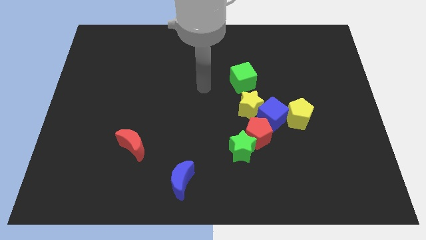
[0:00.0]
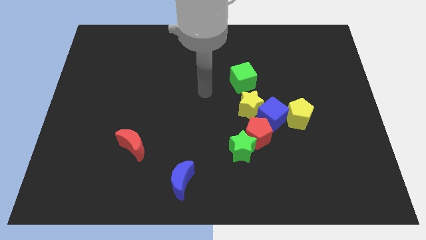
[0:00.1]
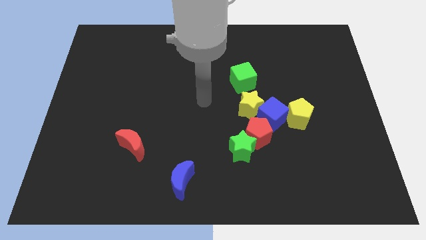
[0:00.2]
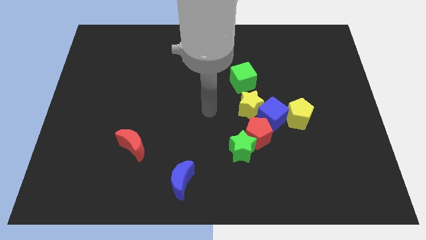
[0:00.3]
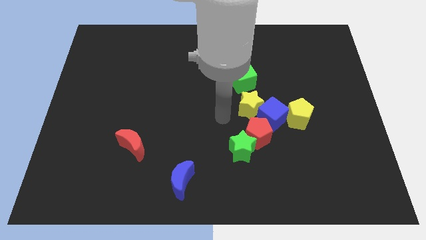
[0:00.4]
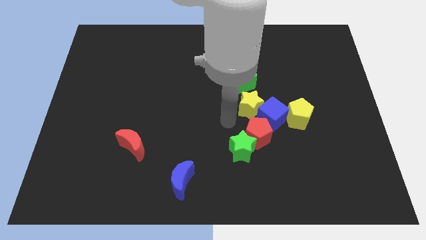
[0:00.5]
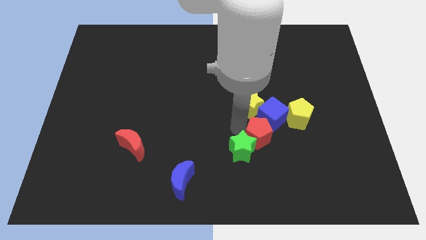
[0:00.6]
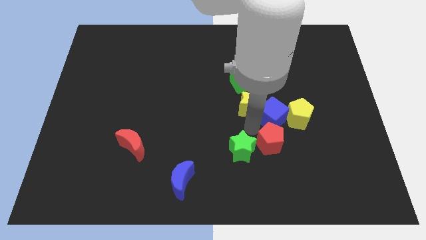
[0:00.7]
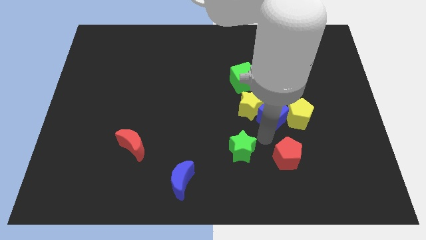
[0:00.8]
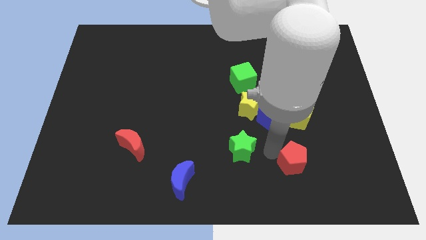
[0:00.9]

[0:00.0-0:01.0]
move the green star away from the red pentagon

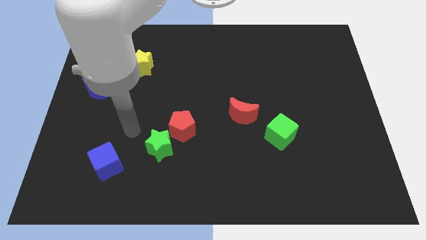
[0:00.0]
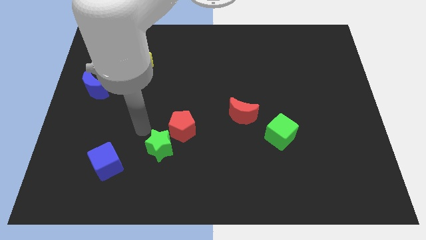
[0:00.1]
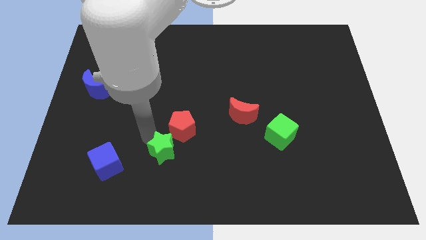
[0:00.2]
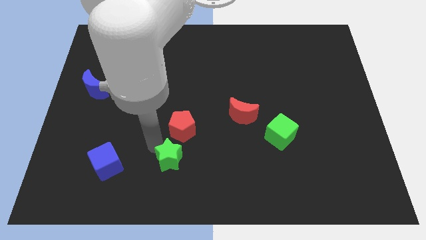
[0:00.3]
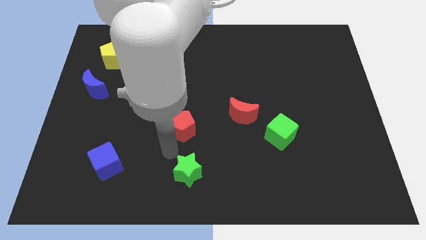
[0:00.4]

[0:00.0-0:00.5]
separate the red pentagon from the green star

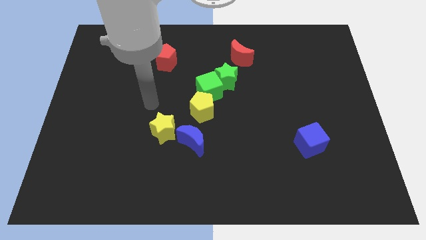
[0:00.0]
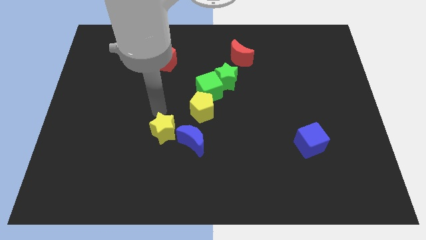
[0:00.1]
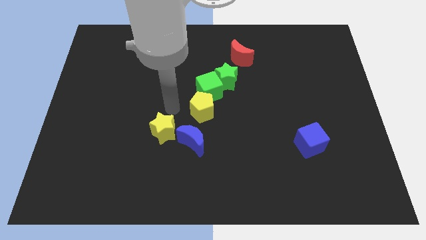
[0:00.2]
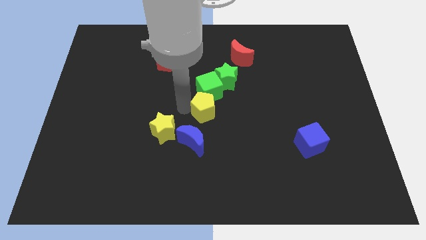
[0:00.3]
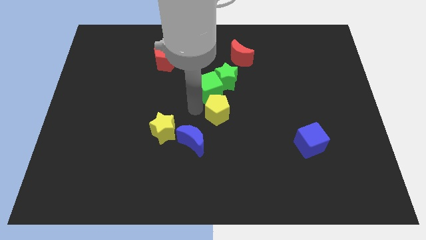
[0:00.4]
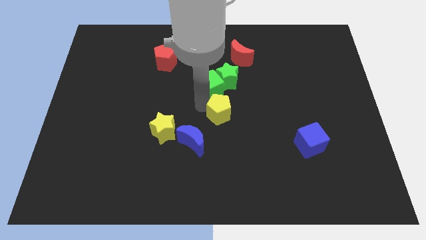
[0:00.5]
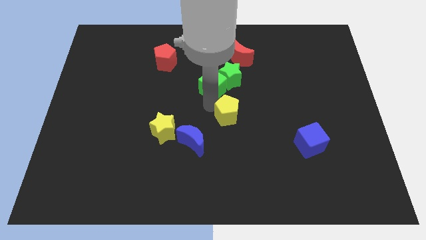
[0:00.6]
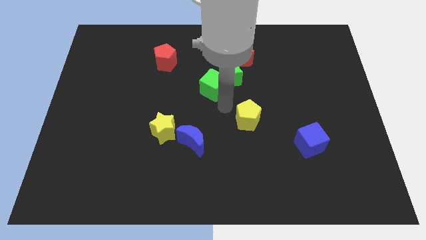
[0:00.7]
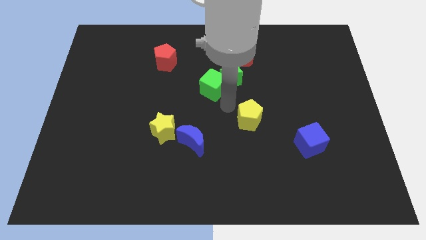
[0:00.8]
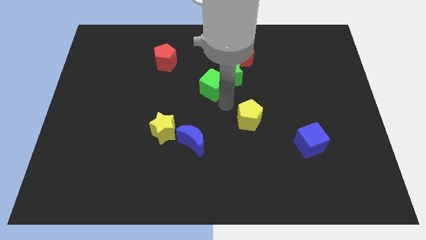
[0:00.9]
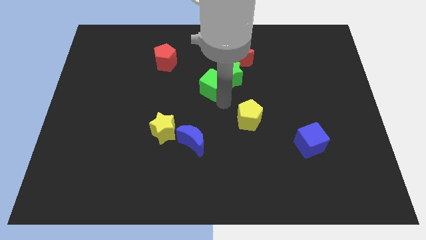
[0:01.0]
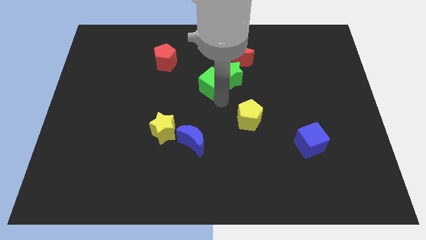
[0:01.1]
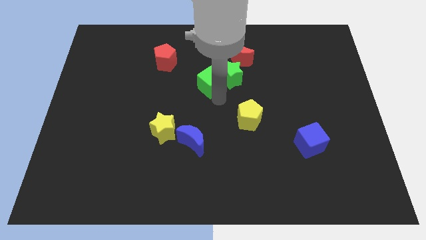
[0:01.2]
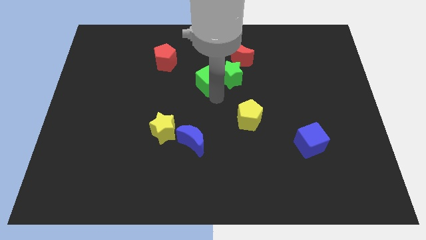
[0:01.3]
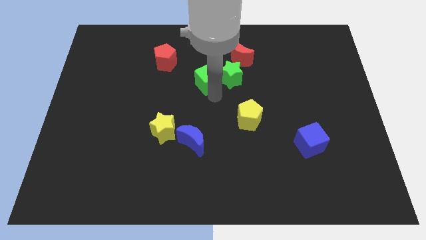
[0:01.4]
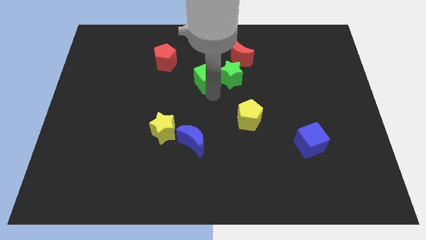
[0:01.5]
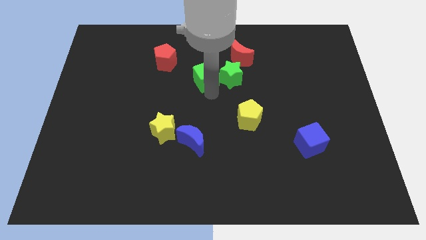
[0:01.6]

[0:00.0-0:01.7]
pull the green cube apart from the green star and yellow pentagon

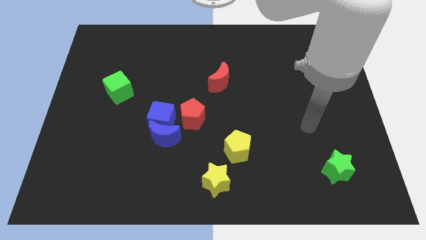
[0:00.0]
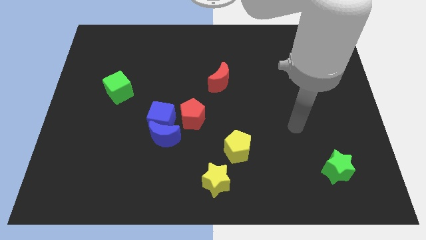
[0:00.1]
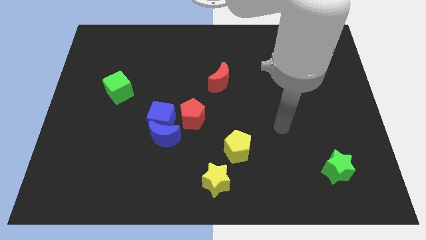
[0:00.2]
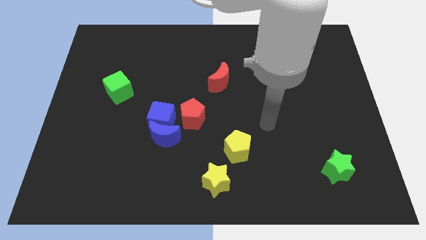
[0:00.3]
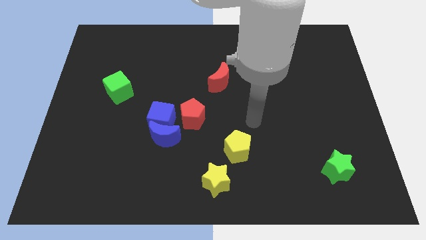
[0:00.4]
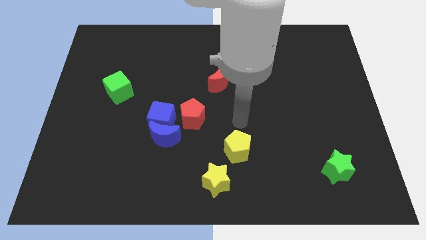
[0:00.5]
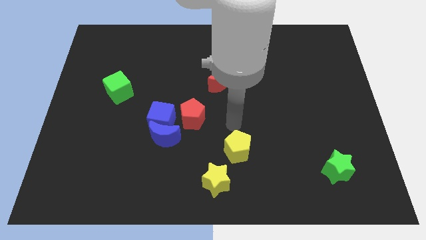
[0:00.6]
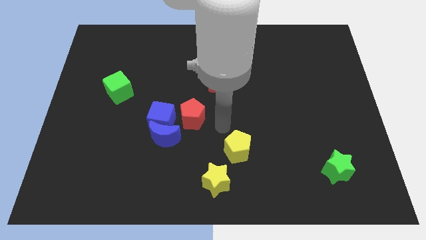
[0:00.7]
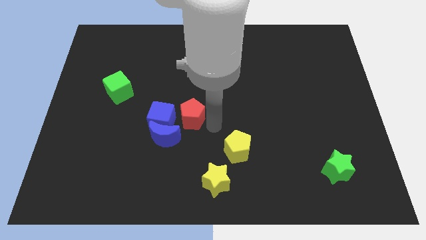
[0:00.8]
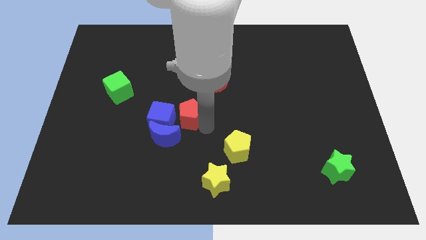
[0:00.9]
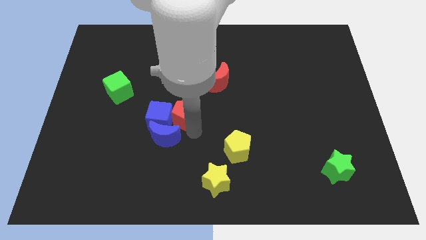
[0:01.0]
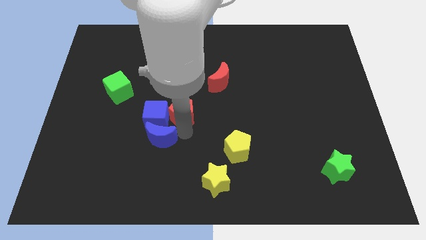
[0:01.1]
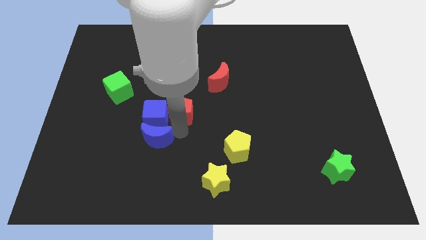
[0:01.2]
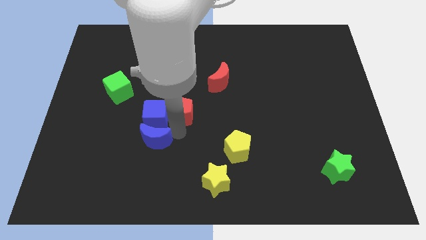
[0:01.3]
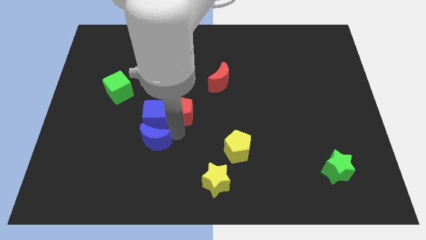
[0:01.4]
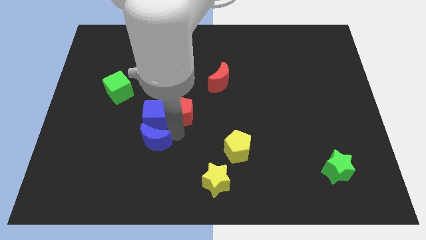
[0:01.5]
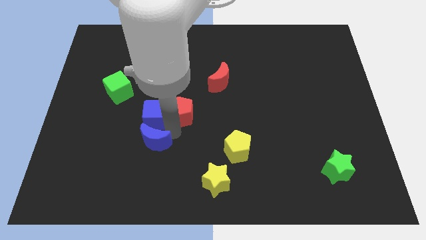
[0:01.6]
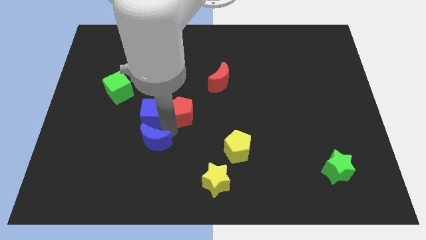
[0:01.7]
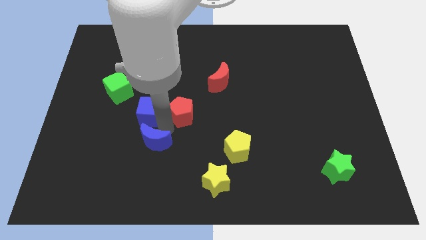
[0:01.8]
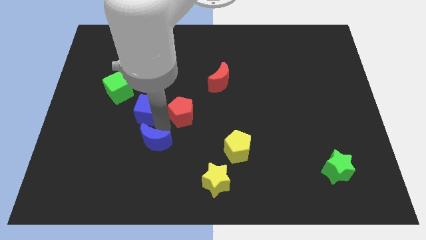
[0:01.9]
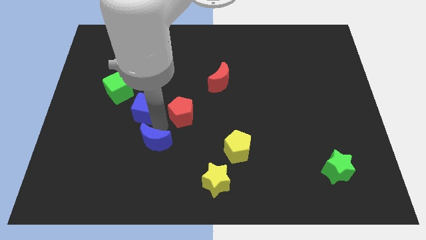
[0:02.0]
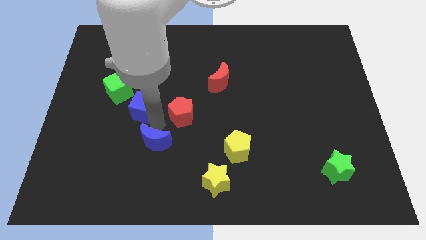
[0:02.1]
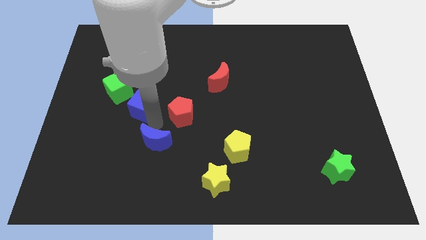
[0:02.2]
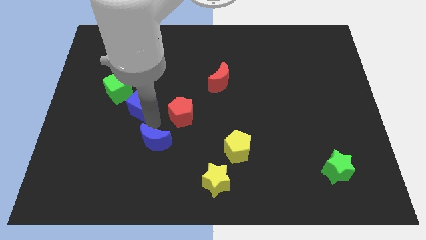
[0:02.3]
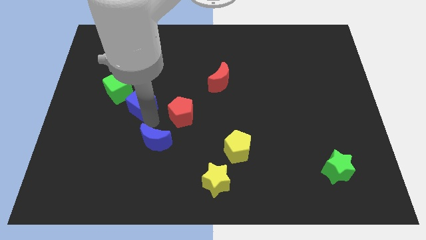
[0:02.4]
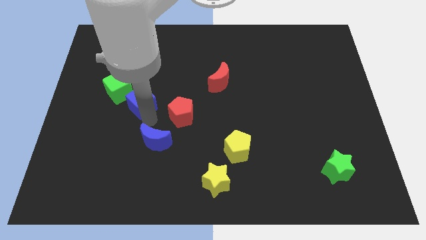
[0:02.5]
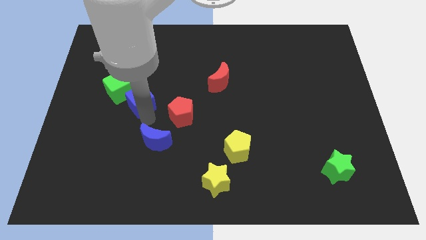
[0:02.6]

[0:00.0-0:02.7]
separate the blue cube from the blue moon and red pentagon

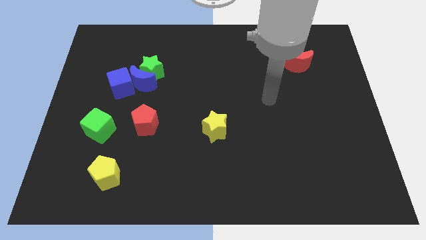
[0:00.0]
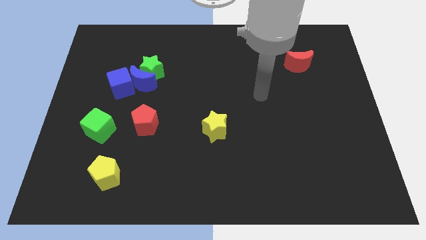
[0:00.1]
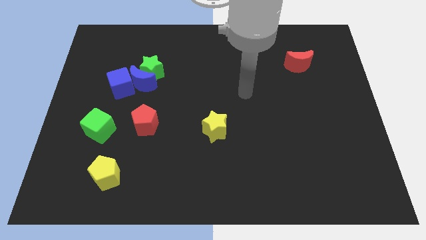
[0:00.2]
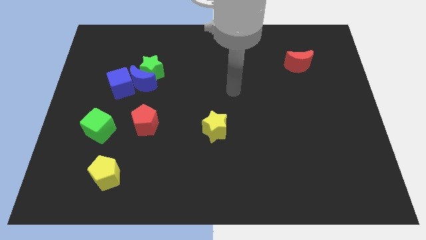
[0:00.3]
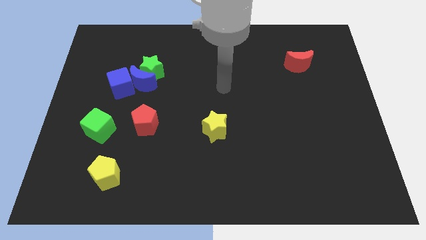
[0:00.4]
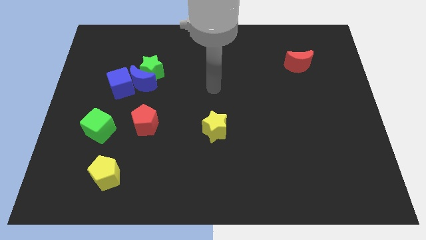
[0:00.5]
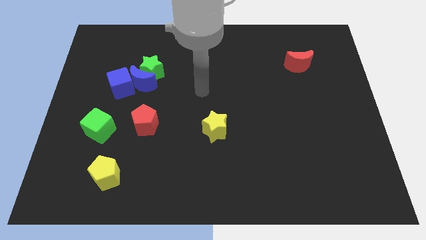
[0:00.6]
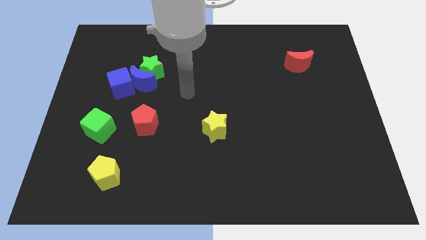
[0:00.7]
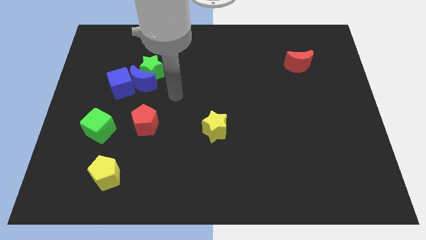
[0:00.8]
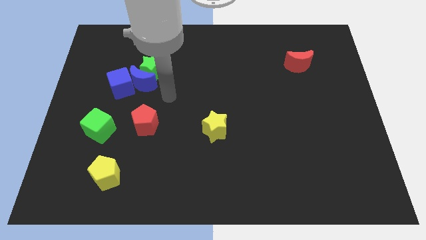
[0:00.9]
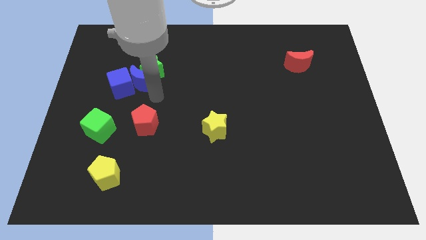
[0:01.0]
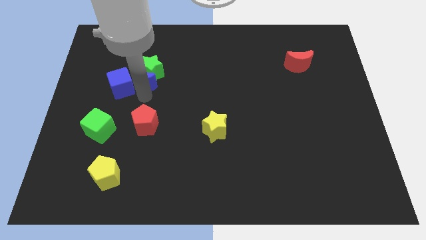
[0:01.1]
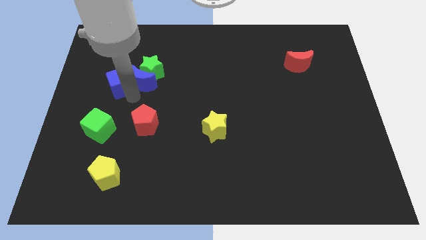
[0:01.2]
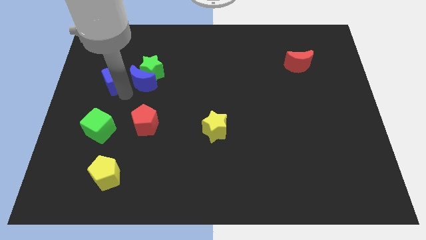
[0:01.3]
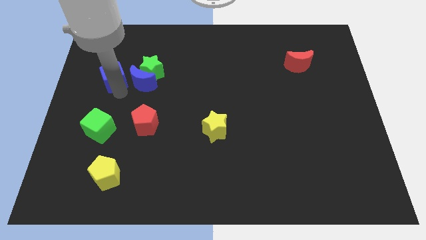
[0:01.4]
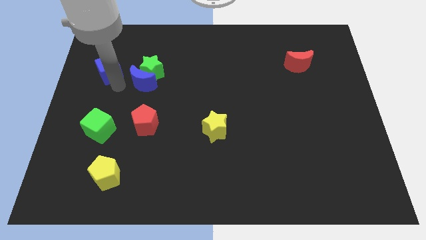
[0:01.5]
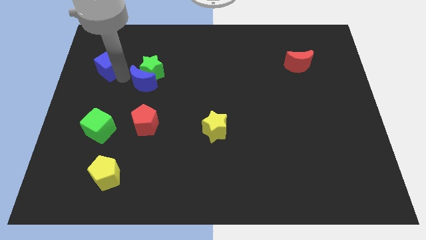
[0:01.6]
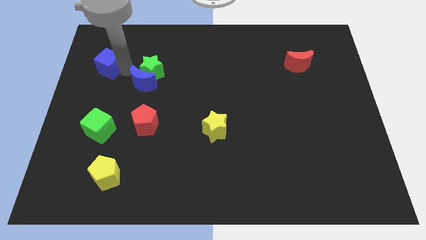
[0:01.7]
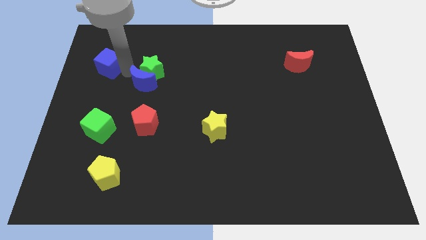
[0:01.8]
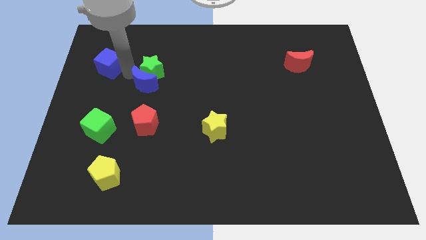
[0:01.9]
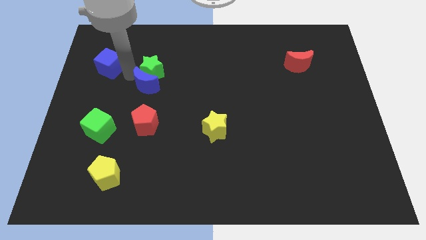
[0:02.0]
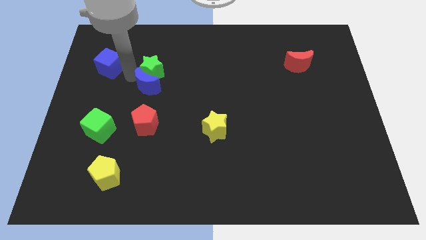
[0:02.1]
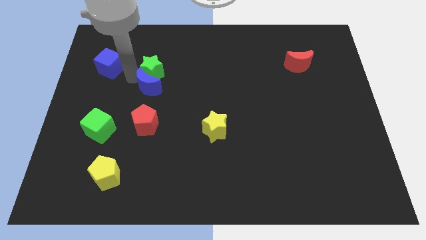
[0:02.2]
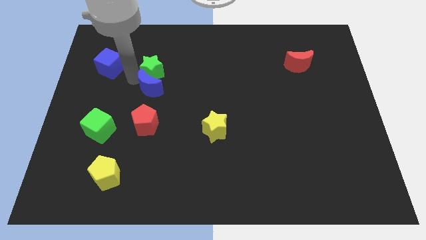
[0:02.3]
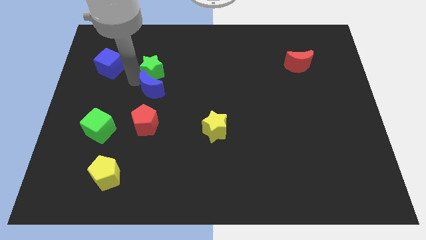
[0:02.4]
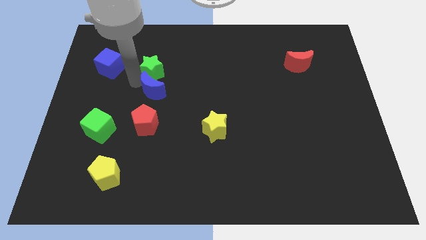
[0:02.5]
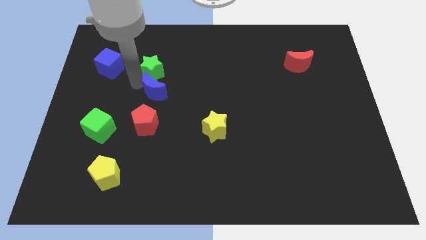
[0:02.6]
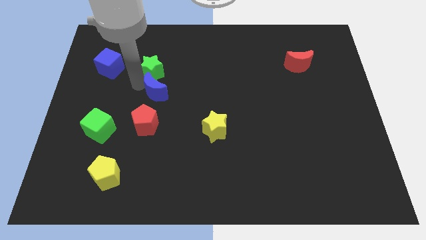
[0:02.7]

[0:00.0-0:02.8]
move the blue moon away from the green star and blue cube

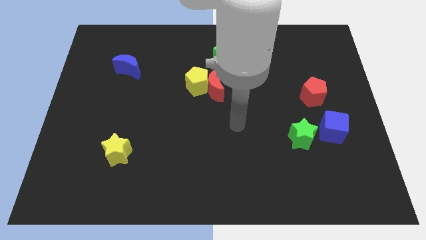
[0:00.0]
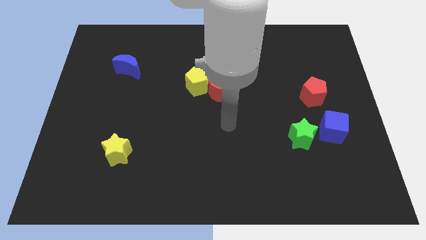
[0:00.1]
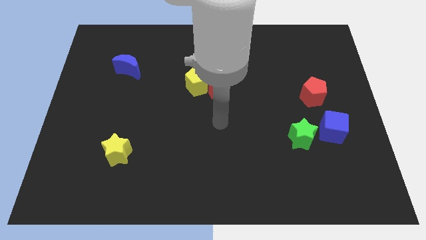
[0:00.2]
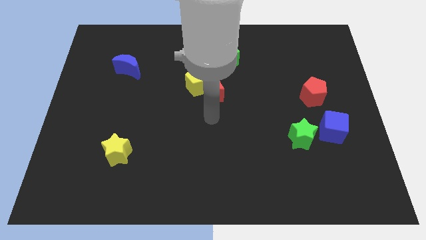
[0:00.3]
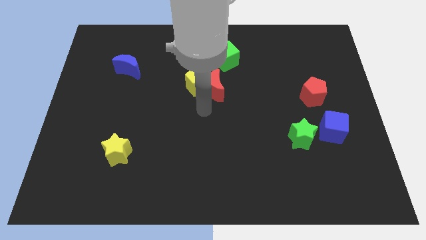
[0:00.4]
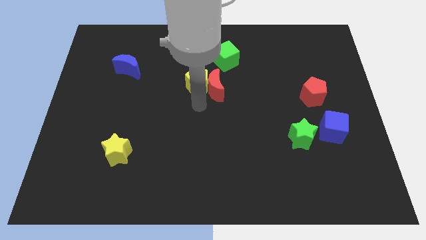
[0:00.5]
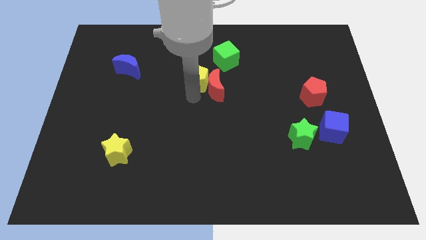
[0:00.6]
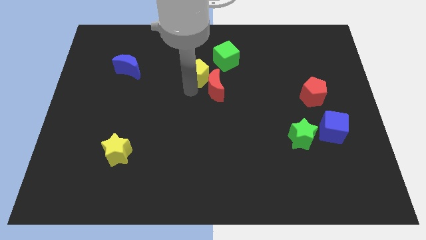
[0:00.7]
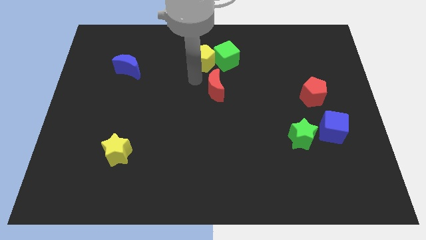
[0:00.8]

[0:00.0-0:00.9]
pull the red moon apart from the yellow pentagon
